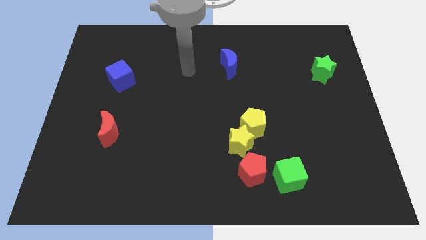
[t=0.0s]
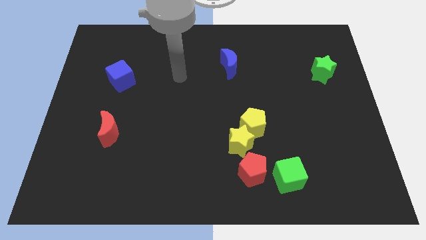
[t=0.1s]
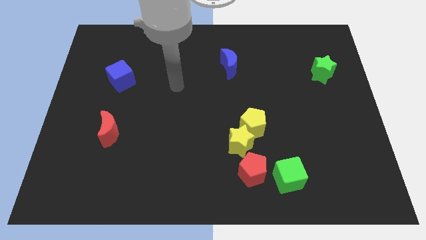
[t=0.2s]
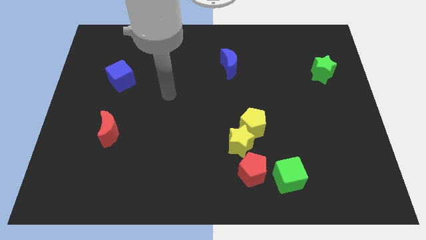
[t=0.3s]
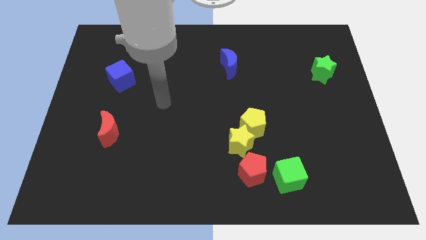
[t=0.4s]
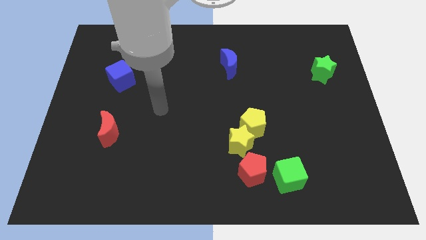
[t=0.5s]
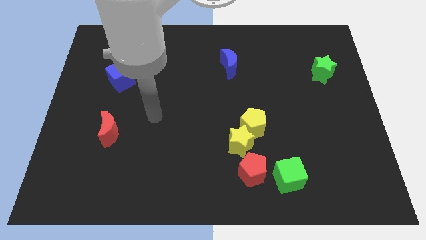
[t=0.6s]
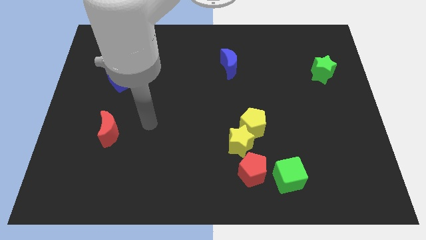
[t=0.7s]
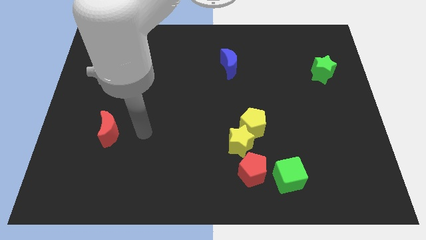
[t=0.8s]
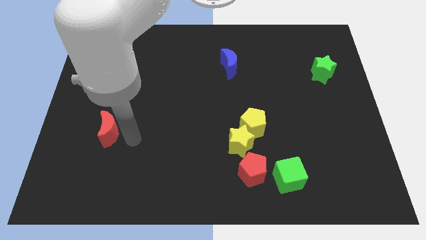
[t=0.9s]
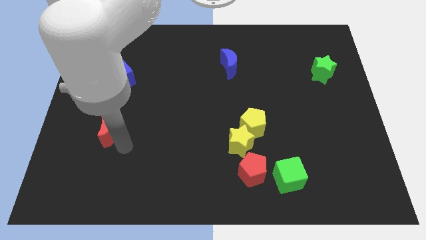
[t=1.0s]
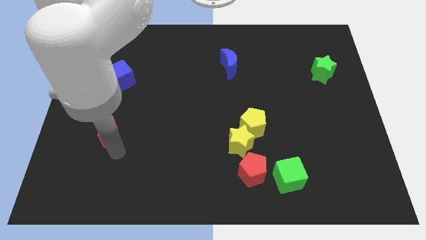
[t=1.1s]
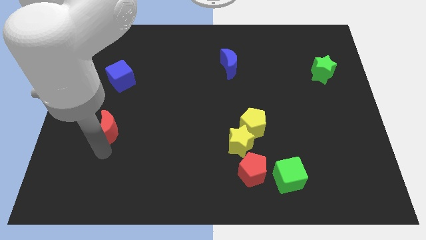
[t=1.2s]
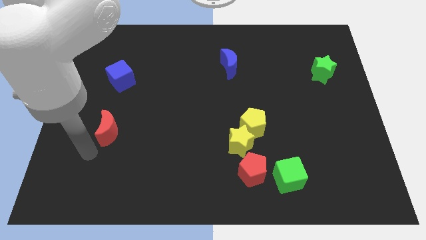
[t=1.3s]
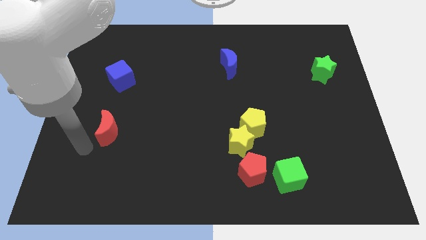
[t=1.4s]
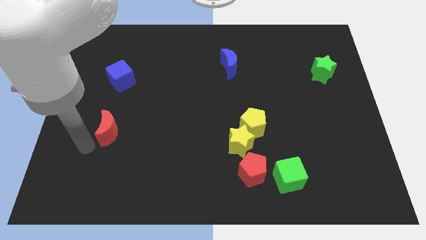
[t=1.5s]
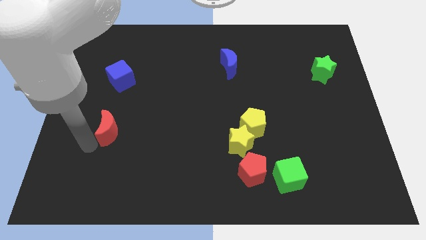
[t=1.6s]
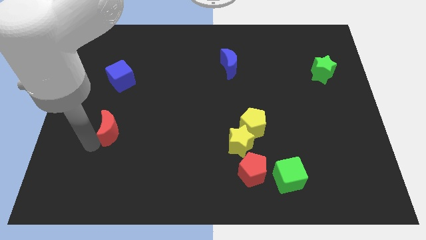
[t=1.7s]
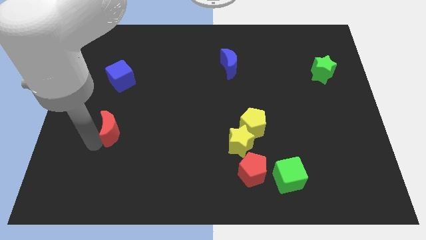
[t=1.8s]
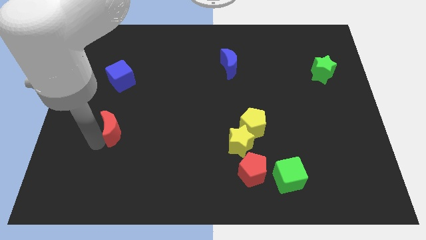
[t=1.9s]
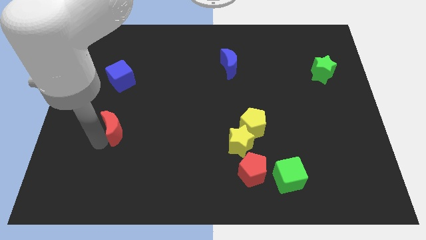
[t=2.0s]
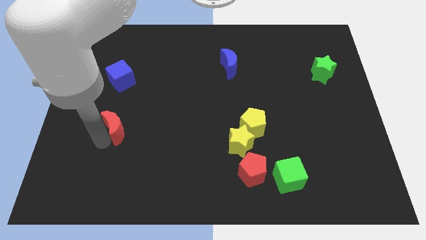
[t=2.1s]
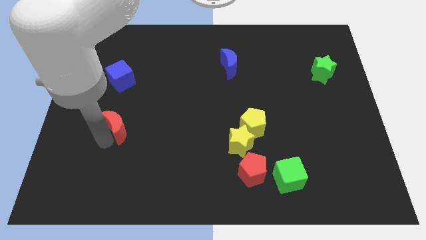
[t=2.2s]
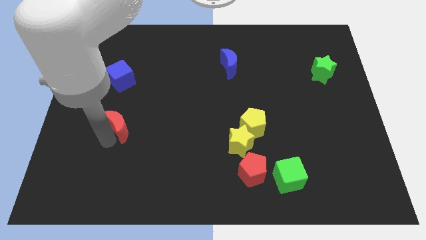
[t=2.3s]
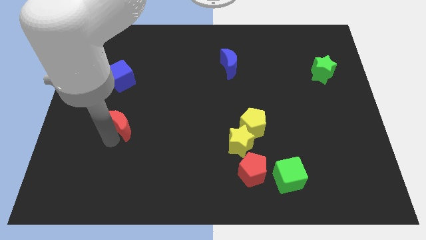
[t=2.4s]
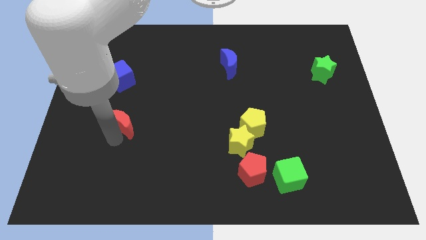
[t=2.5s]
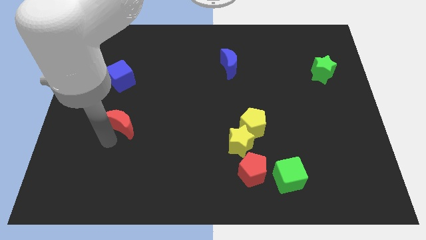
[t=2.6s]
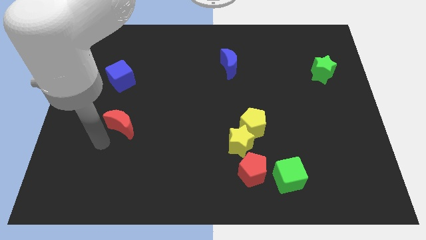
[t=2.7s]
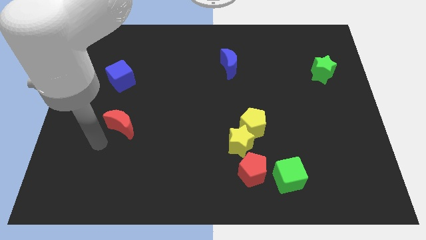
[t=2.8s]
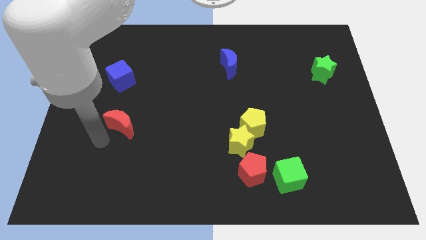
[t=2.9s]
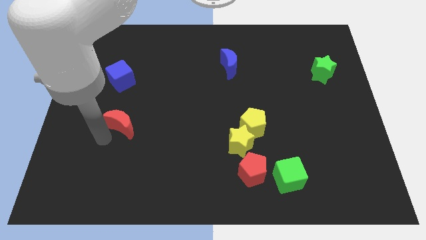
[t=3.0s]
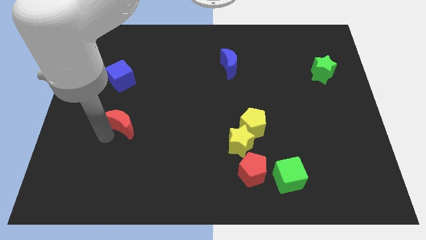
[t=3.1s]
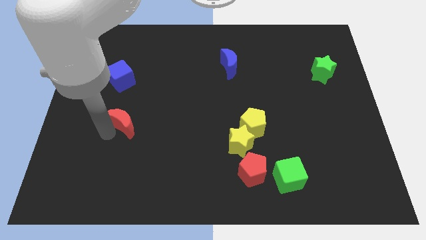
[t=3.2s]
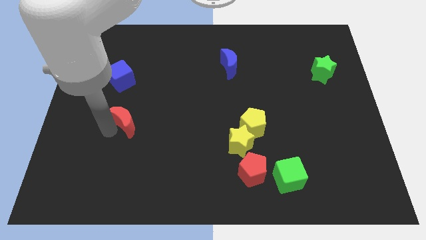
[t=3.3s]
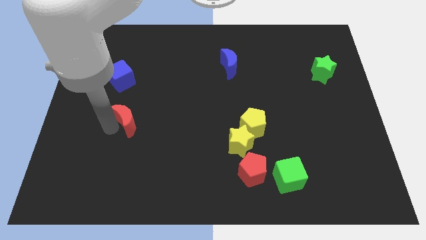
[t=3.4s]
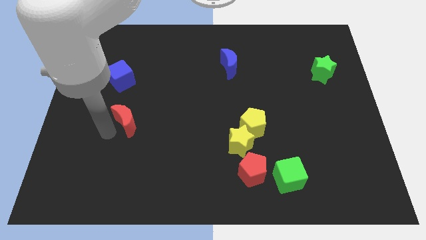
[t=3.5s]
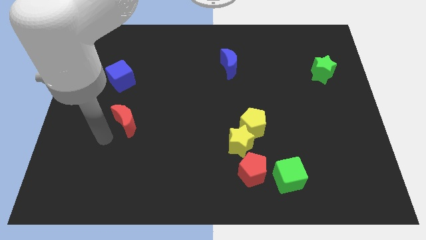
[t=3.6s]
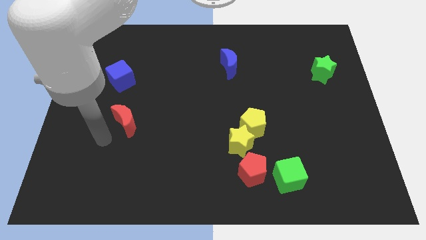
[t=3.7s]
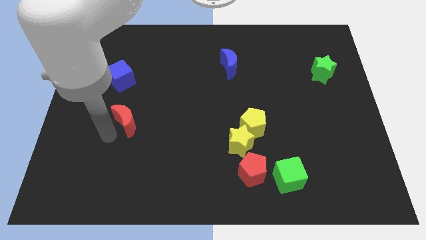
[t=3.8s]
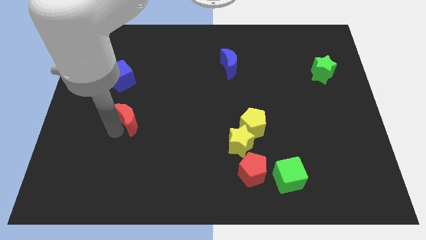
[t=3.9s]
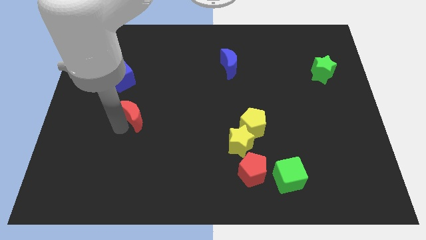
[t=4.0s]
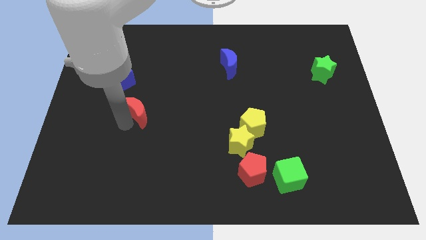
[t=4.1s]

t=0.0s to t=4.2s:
slightly move the red moon upwards and then to the right

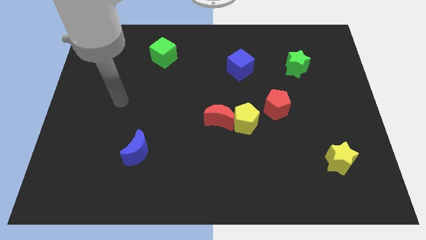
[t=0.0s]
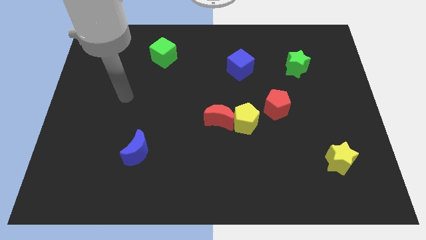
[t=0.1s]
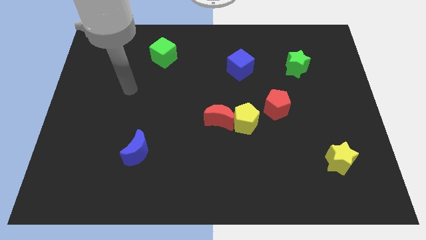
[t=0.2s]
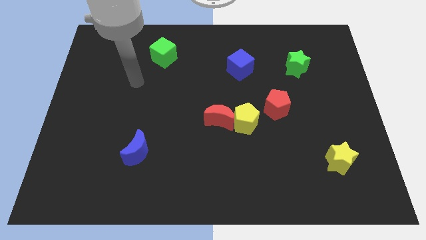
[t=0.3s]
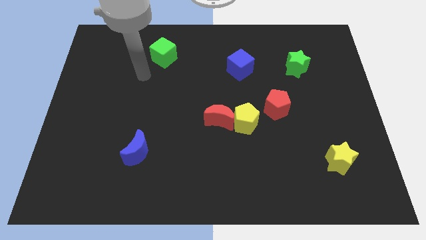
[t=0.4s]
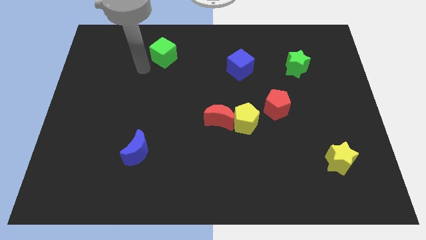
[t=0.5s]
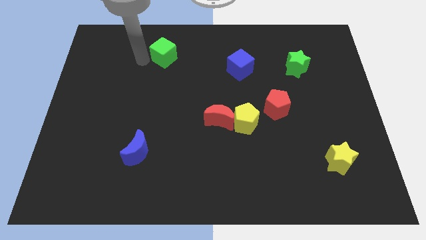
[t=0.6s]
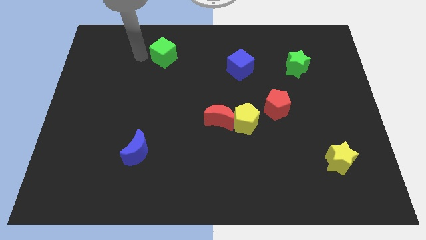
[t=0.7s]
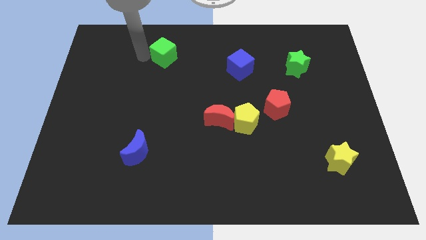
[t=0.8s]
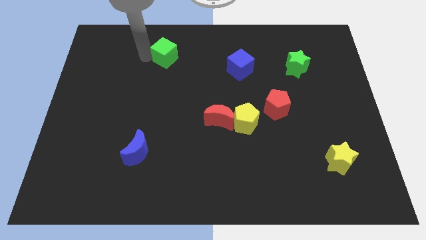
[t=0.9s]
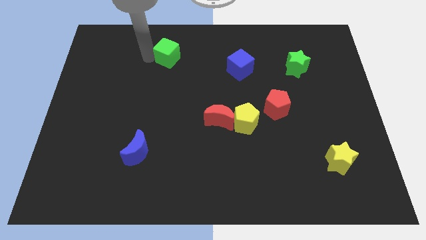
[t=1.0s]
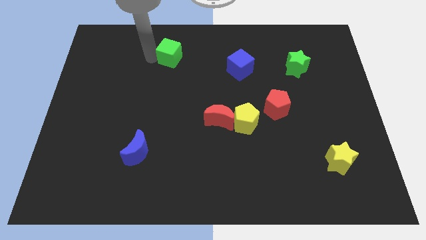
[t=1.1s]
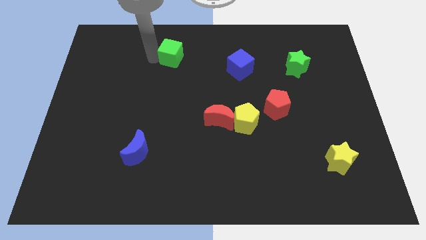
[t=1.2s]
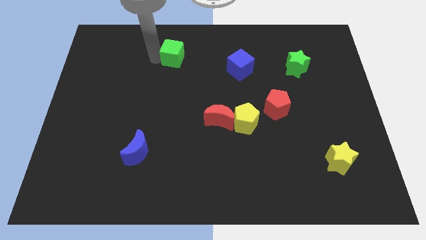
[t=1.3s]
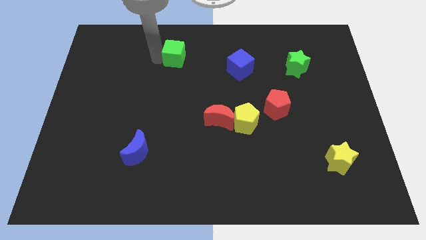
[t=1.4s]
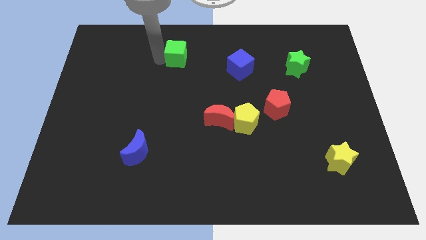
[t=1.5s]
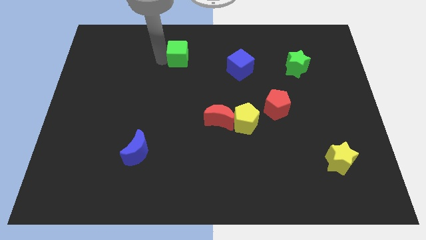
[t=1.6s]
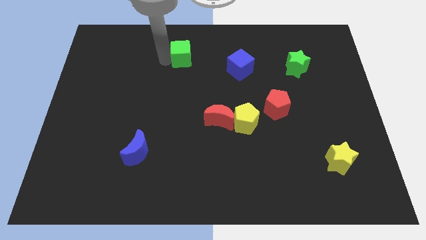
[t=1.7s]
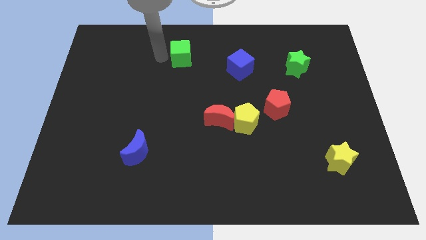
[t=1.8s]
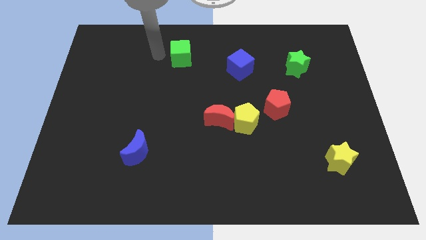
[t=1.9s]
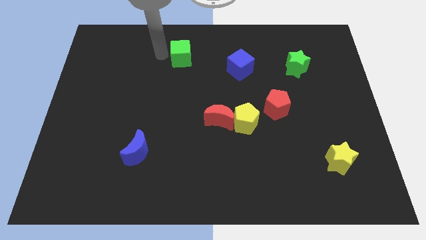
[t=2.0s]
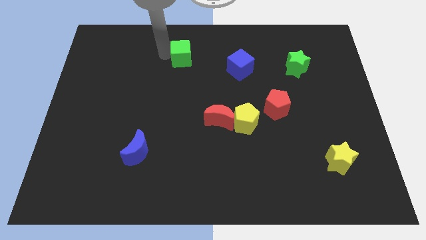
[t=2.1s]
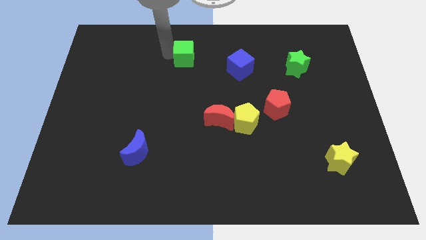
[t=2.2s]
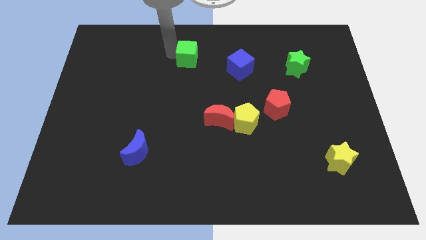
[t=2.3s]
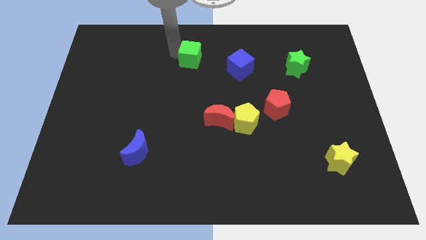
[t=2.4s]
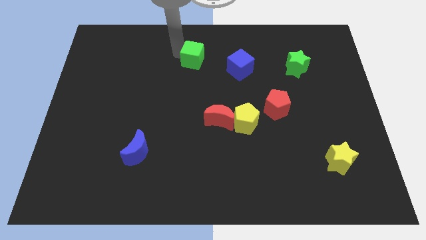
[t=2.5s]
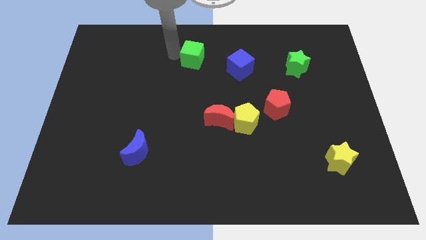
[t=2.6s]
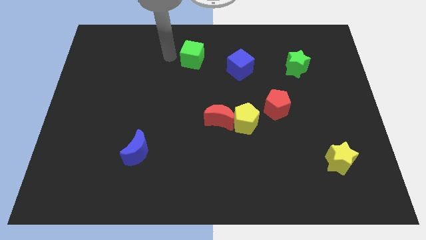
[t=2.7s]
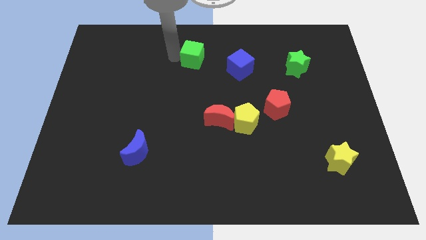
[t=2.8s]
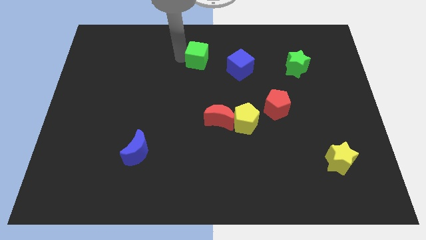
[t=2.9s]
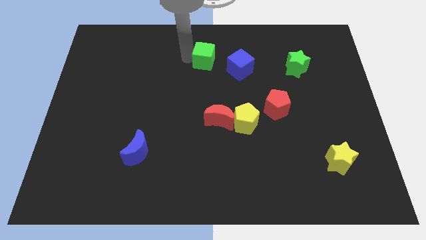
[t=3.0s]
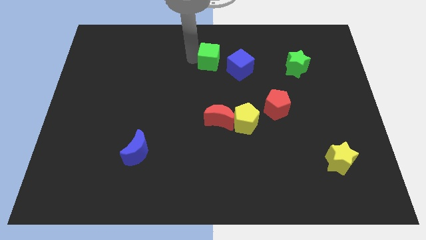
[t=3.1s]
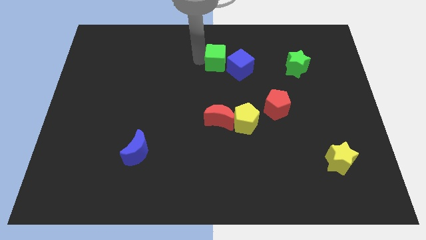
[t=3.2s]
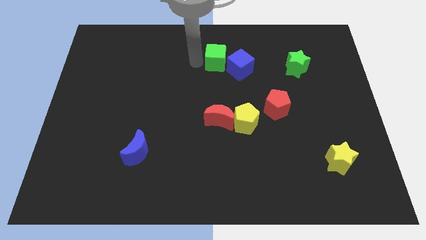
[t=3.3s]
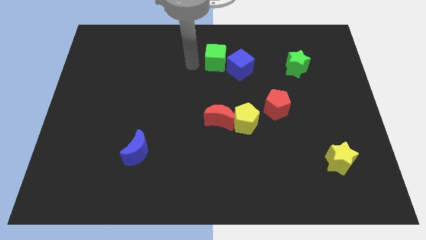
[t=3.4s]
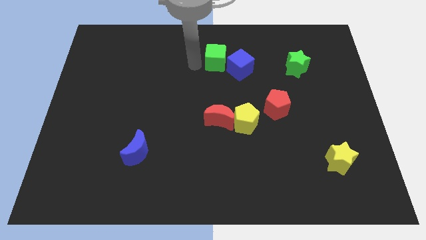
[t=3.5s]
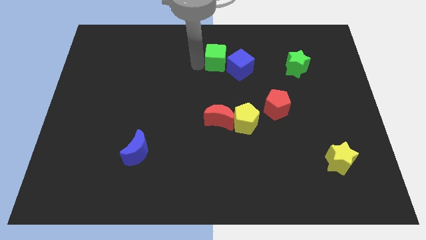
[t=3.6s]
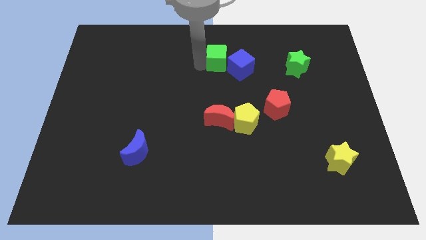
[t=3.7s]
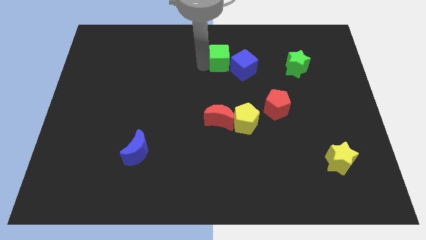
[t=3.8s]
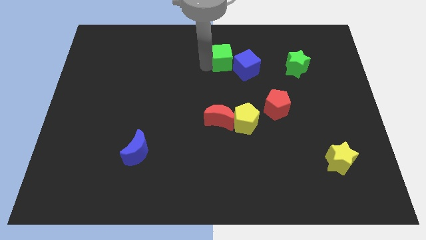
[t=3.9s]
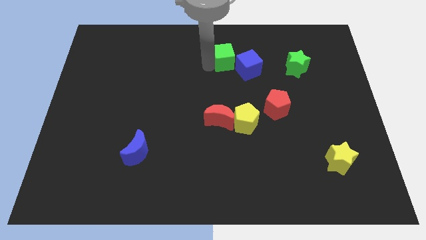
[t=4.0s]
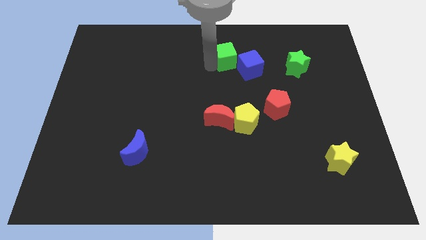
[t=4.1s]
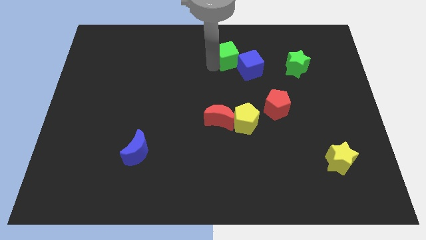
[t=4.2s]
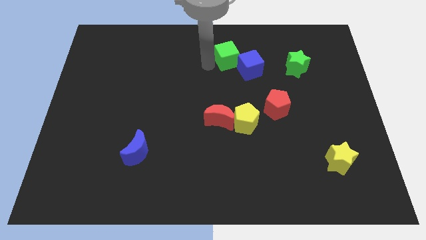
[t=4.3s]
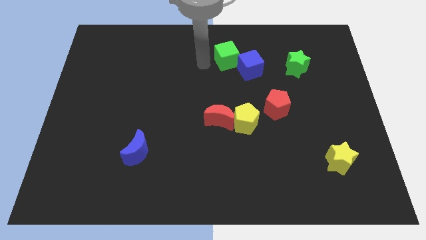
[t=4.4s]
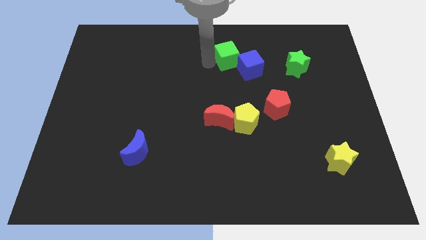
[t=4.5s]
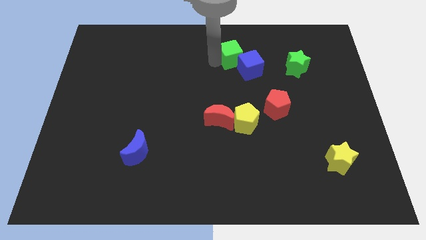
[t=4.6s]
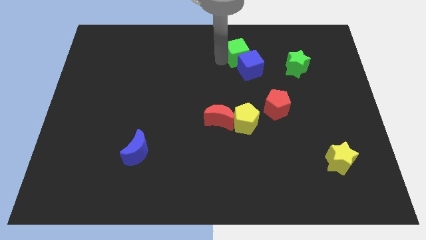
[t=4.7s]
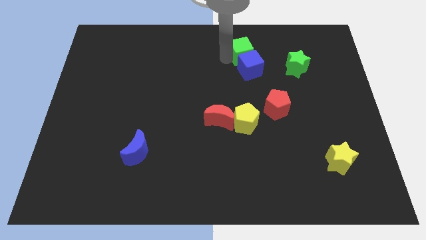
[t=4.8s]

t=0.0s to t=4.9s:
move the green cube right
